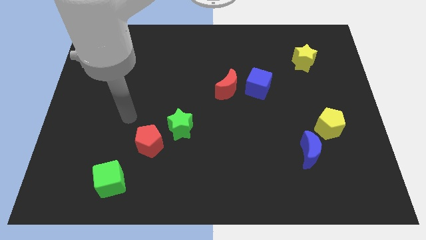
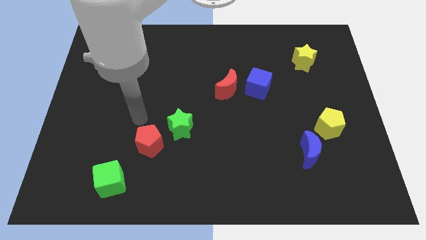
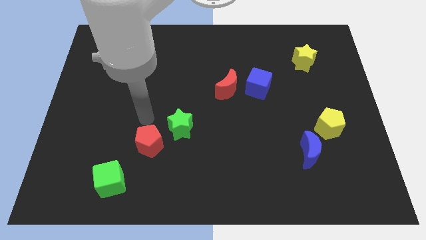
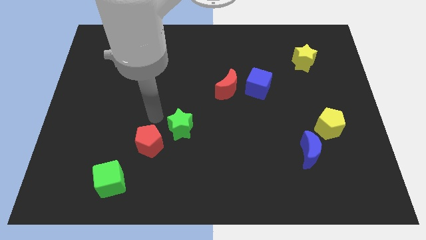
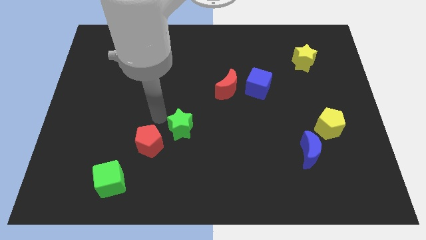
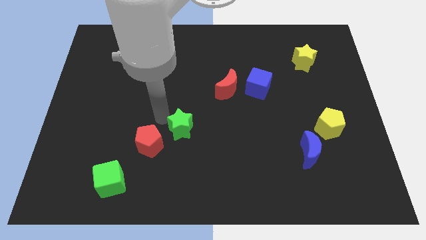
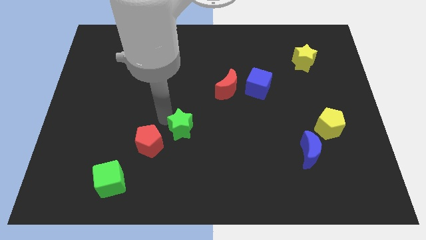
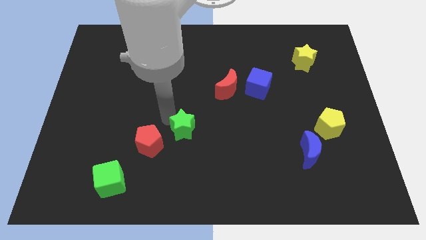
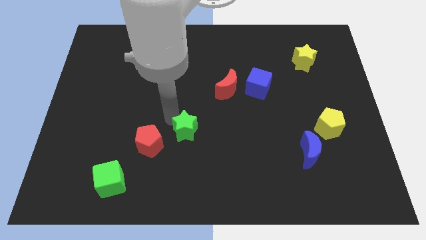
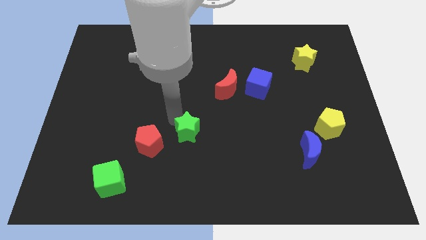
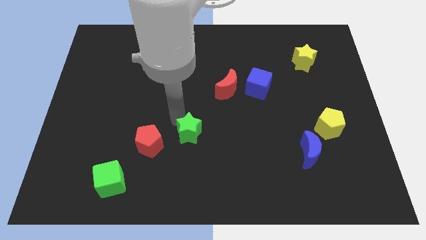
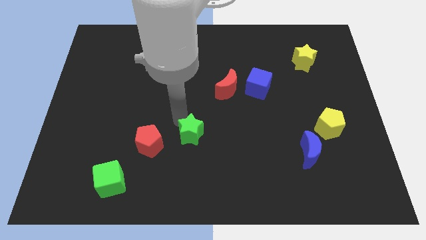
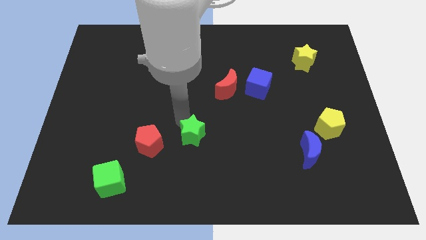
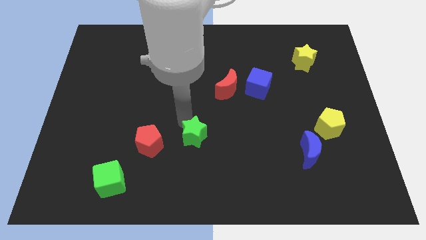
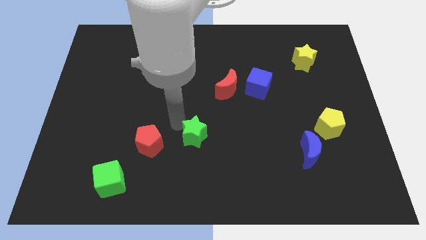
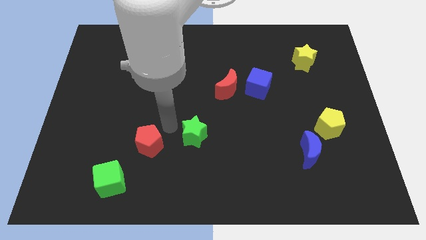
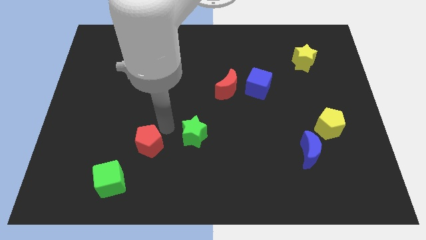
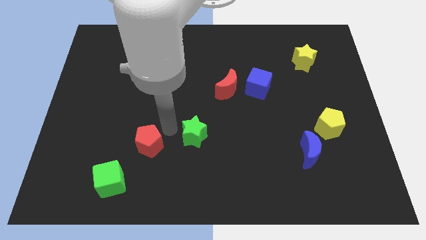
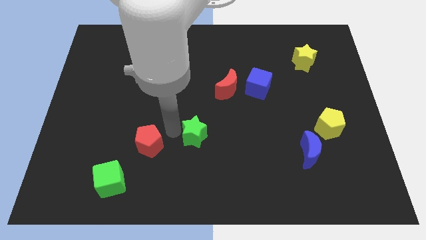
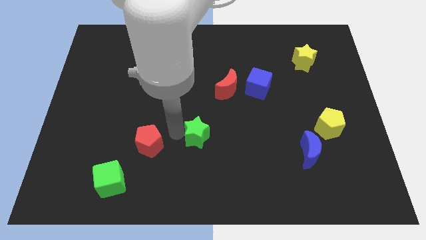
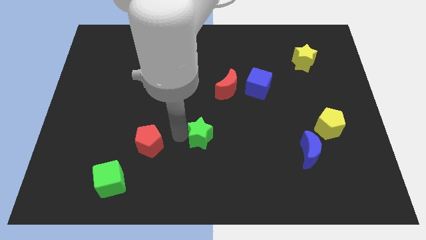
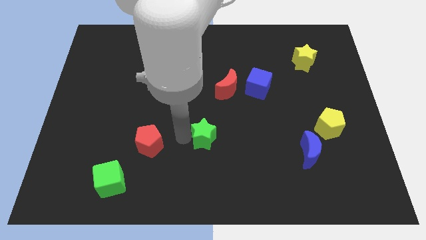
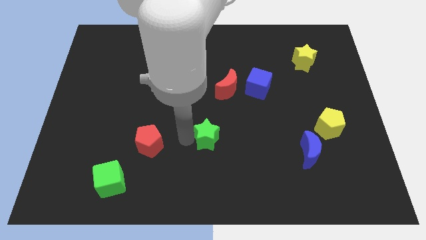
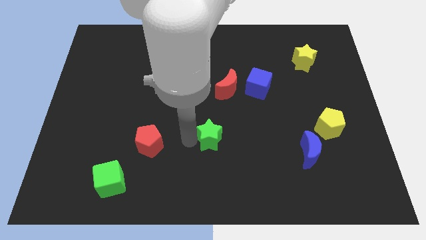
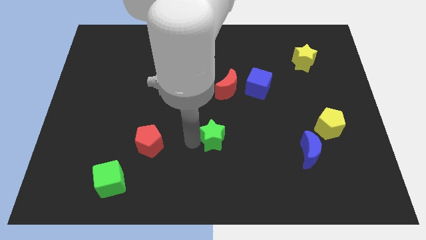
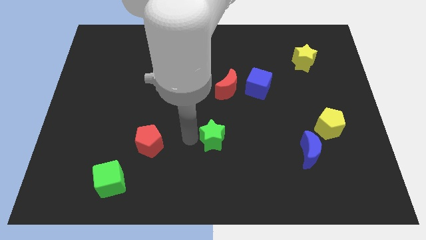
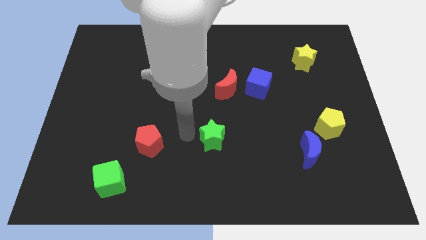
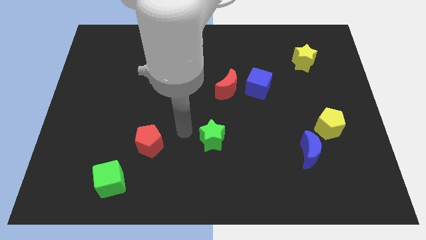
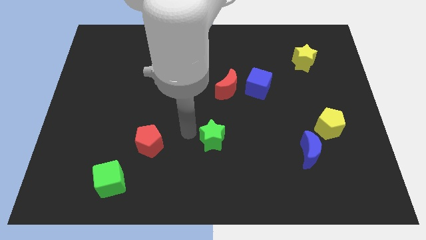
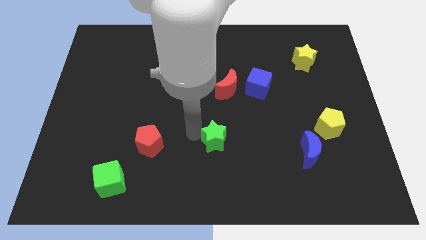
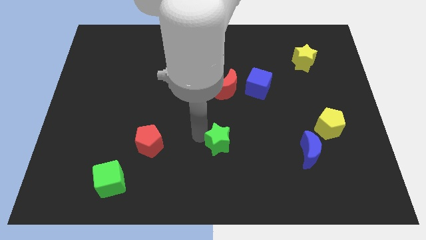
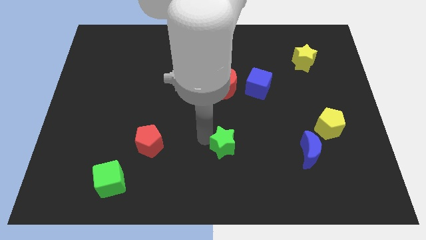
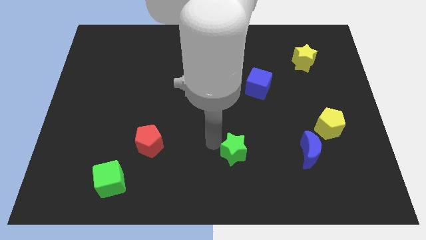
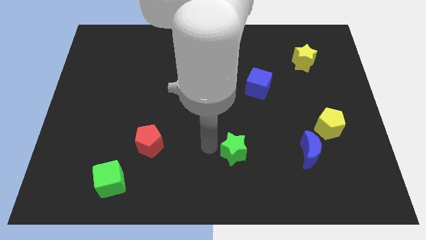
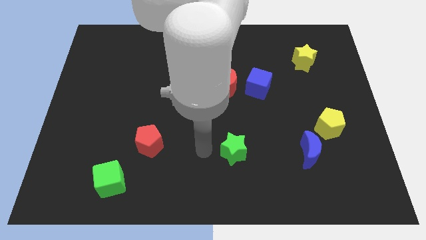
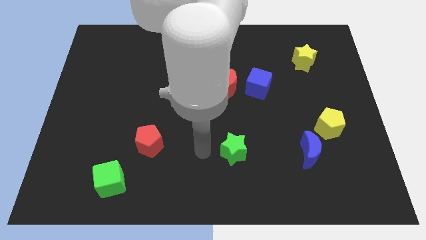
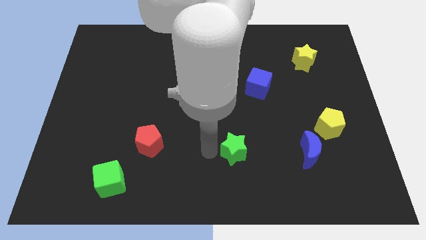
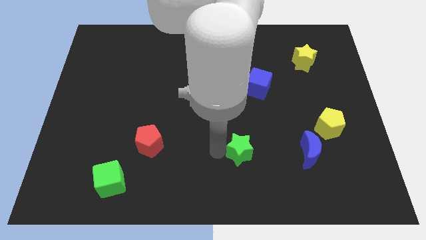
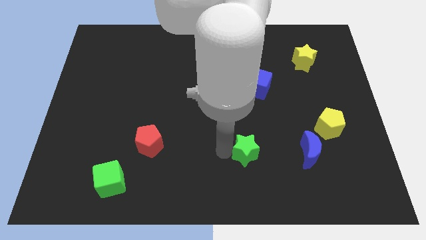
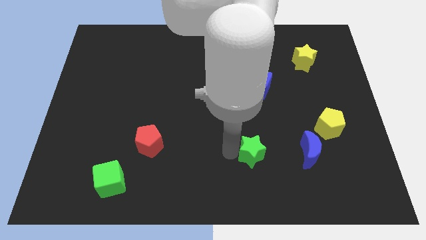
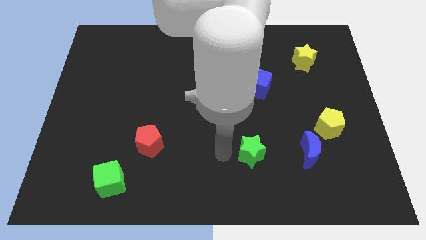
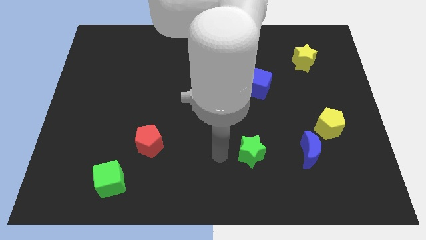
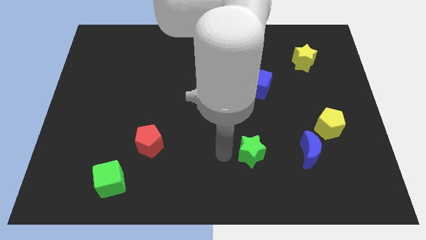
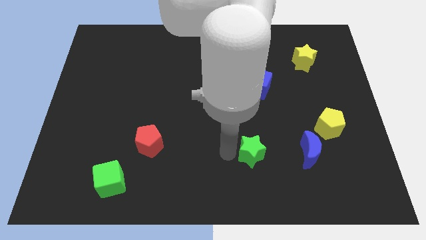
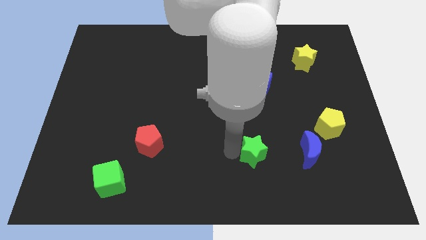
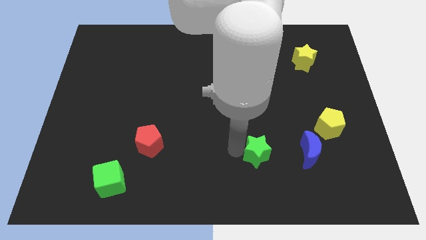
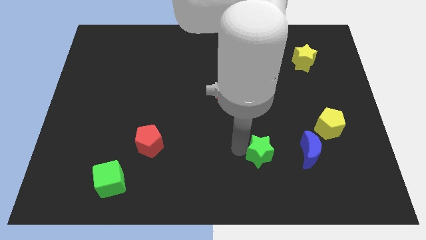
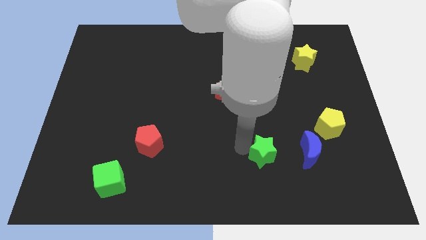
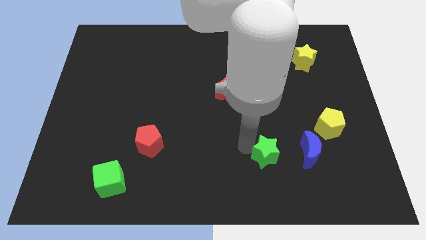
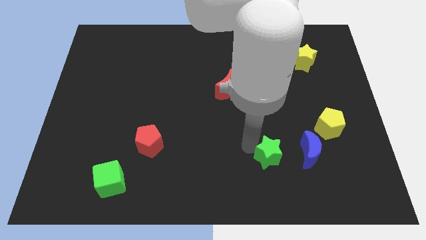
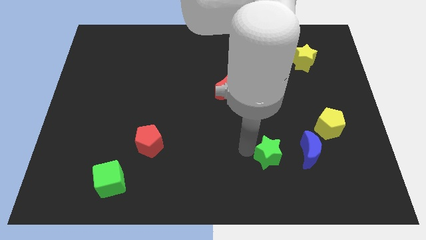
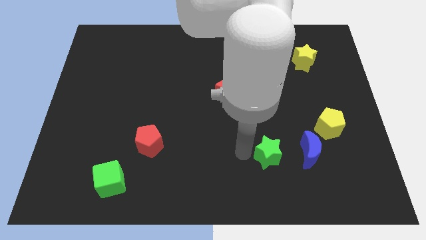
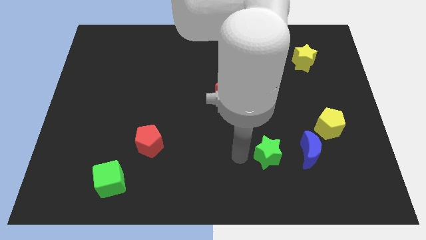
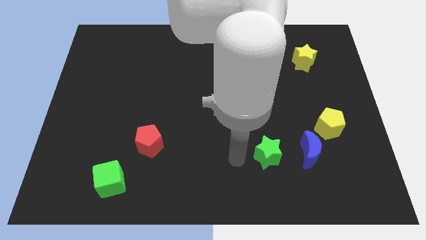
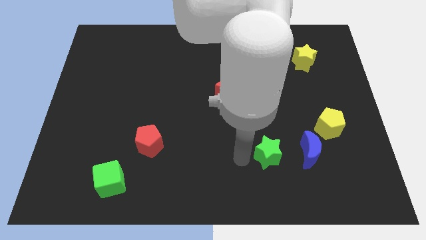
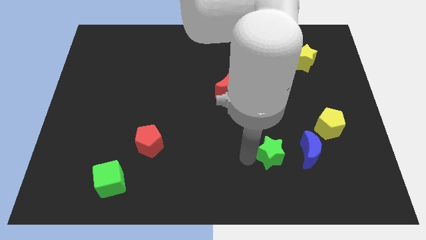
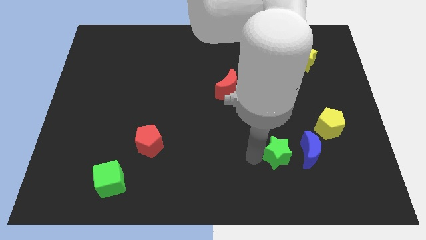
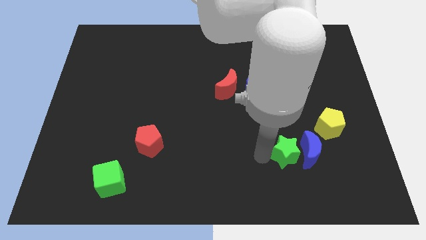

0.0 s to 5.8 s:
put the green star next to the blue moon

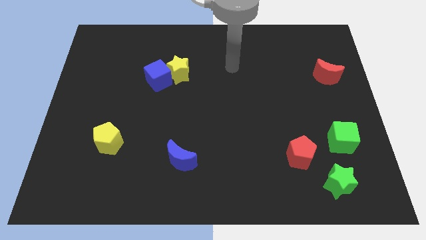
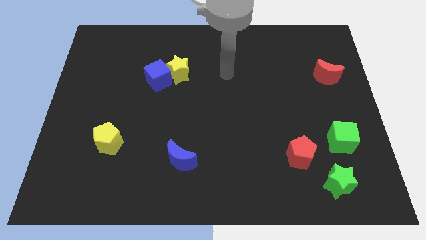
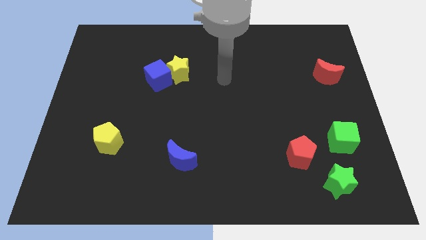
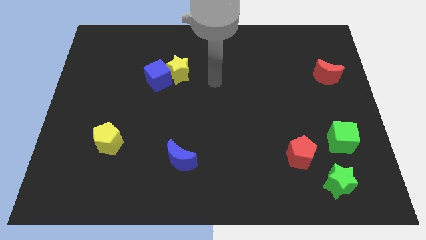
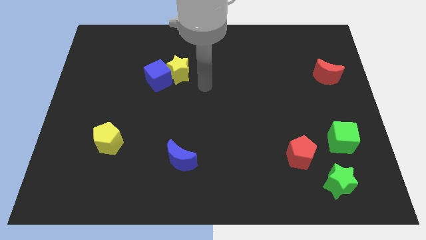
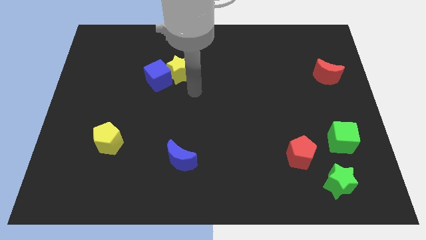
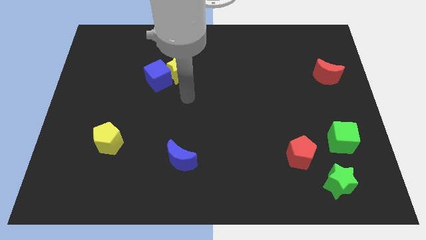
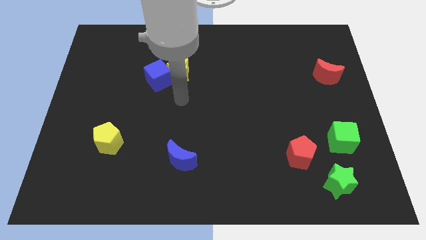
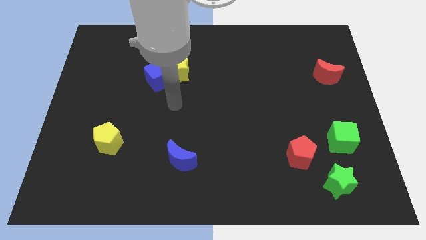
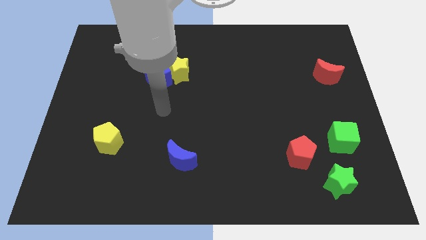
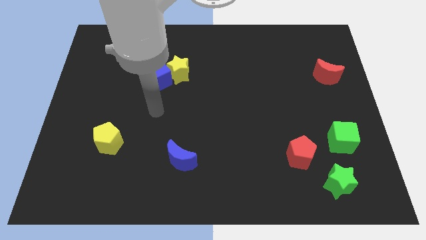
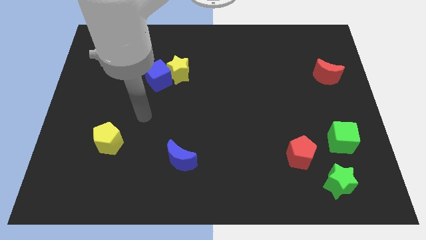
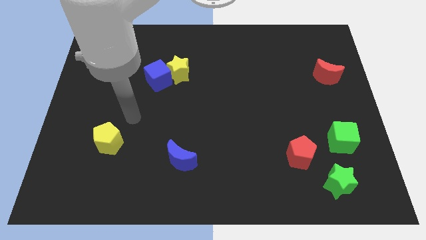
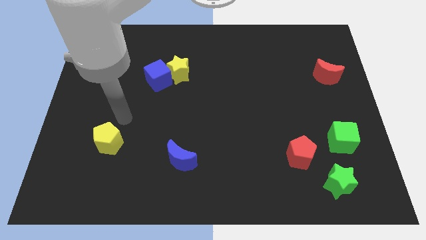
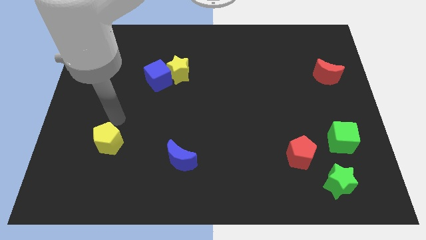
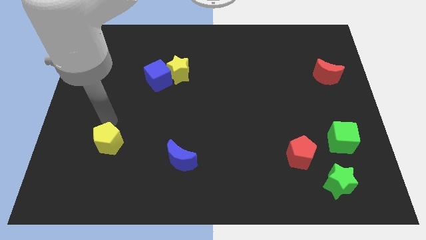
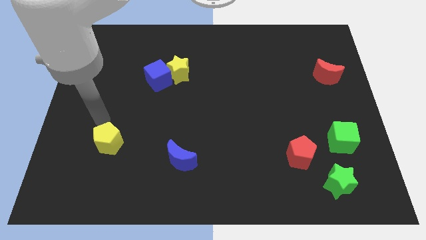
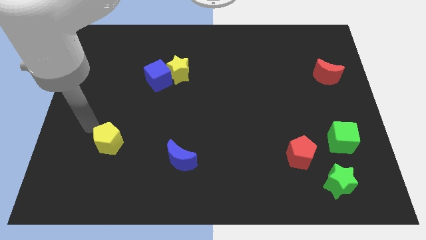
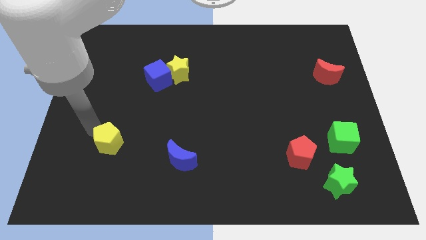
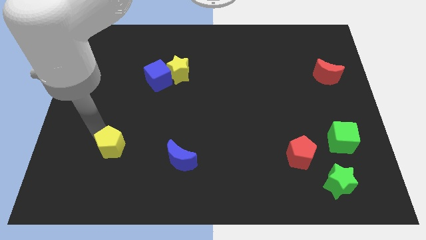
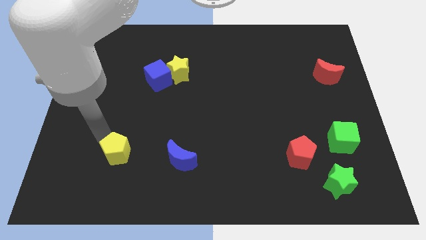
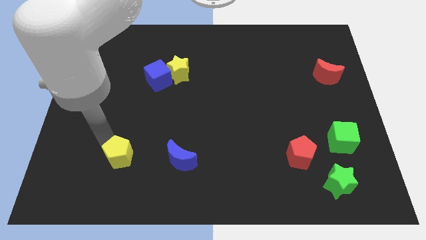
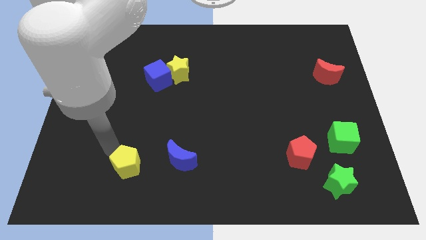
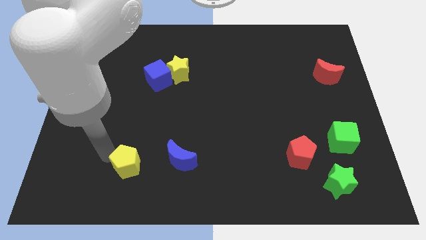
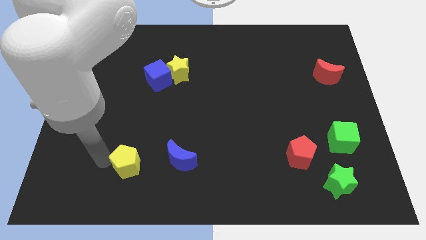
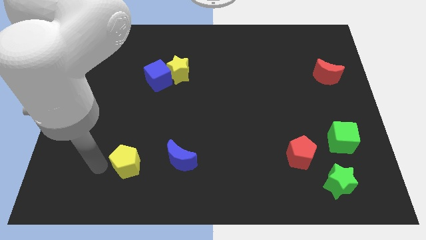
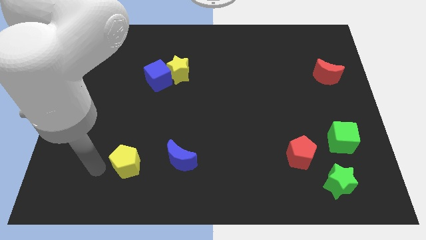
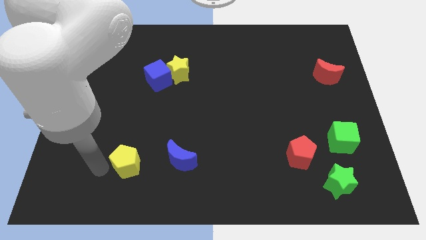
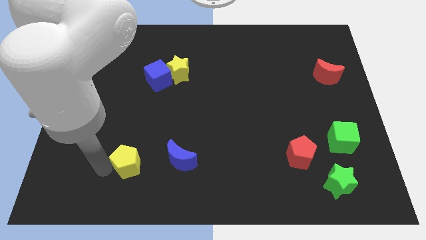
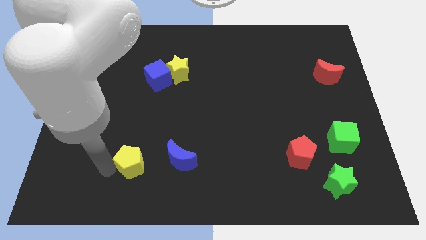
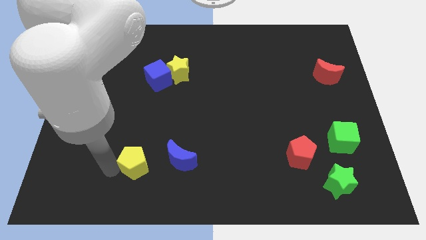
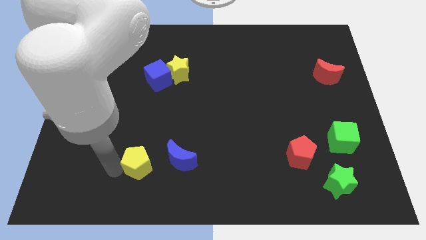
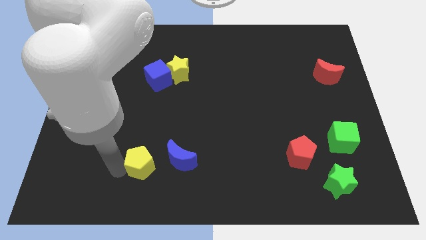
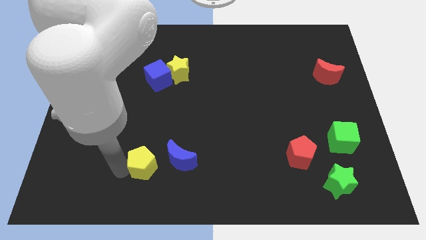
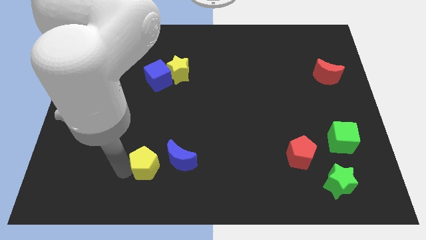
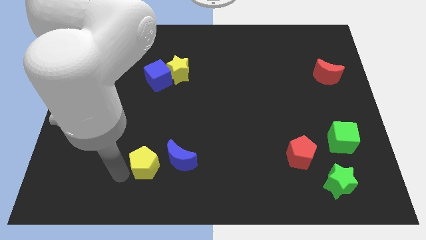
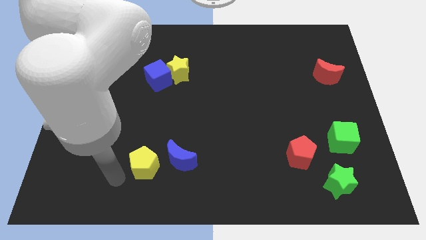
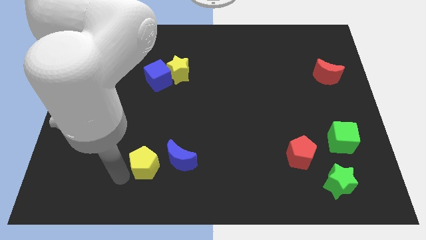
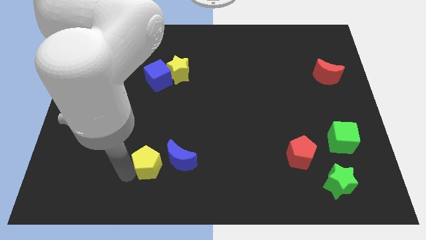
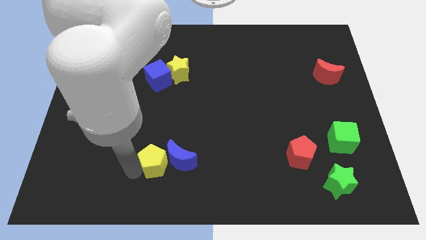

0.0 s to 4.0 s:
push the yellow pentagon towards the blue moon
